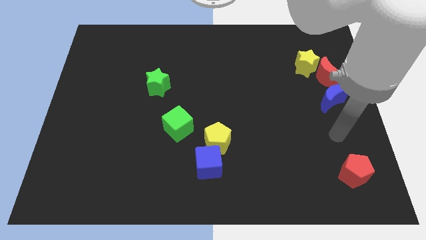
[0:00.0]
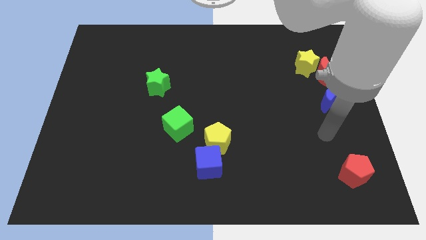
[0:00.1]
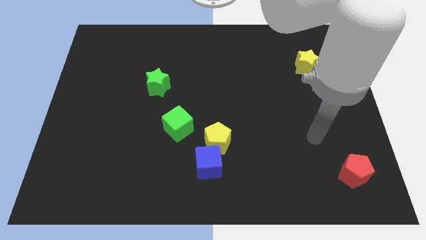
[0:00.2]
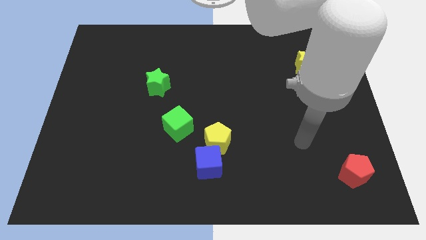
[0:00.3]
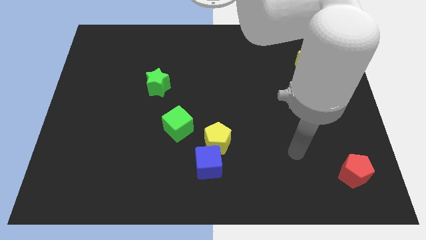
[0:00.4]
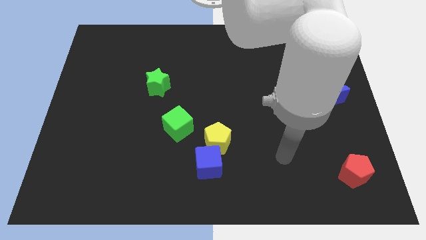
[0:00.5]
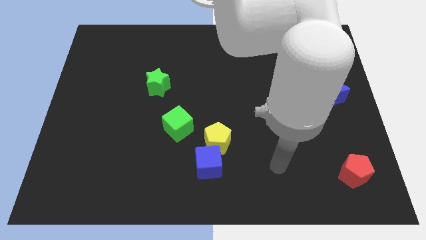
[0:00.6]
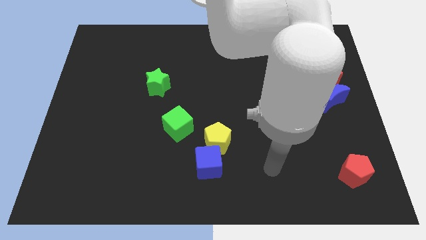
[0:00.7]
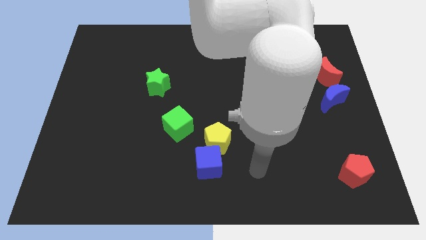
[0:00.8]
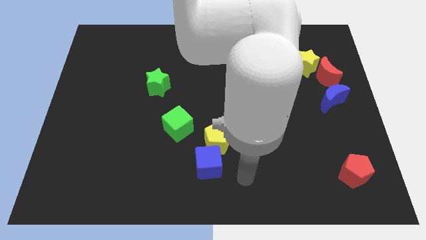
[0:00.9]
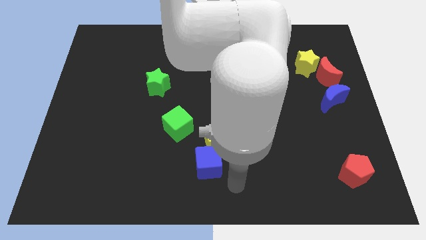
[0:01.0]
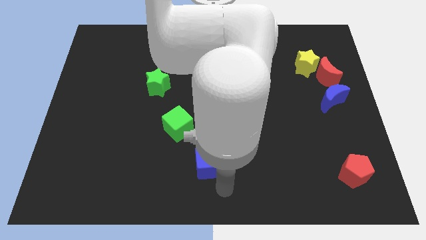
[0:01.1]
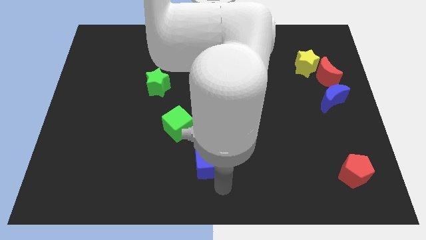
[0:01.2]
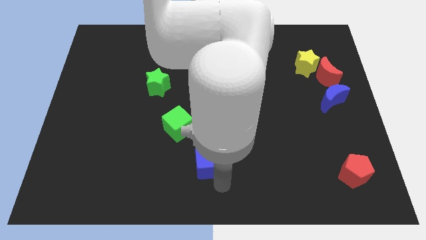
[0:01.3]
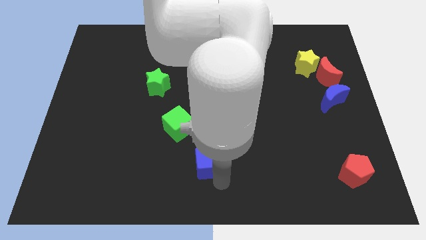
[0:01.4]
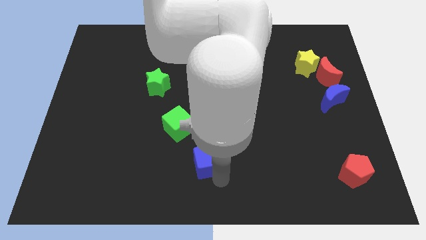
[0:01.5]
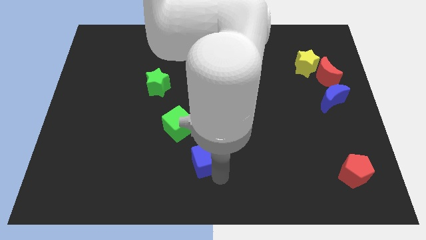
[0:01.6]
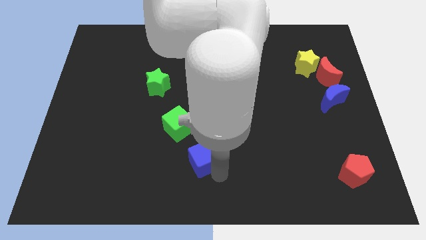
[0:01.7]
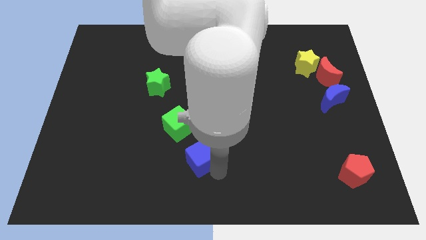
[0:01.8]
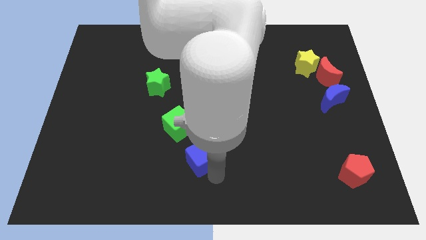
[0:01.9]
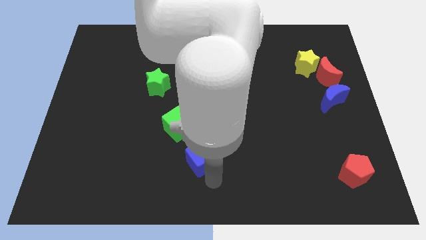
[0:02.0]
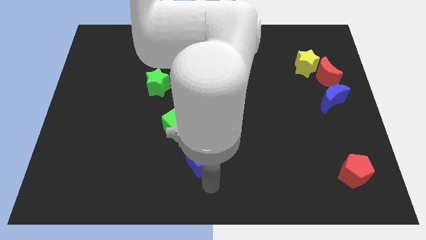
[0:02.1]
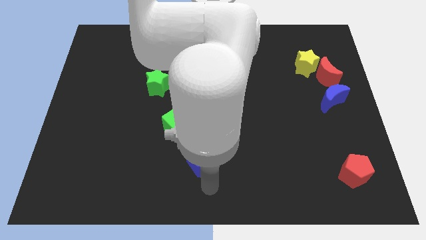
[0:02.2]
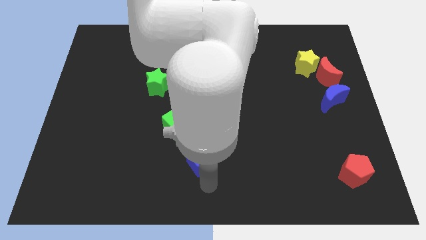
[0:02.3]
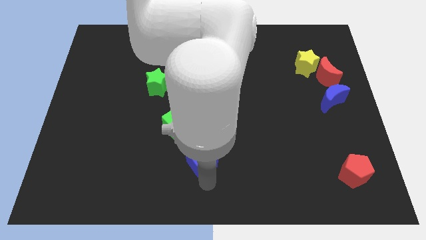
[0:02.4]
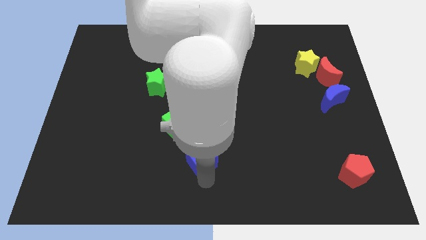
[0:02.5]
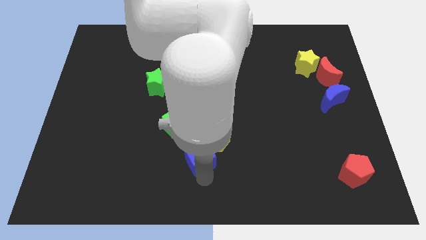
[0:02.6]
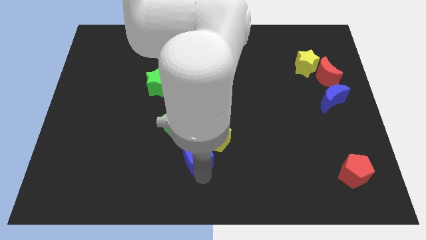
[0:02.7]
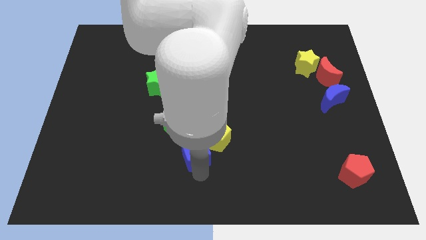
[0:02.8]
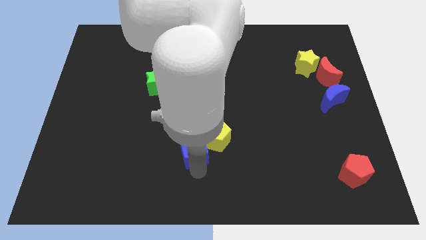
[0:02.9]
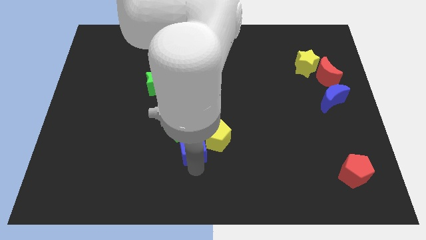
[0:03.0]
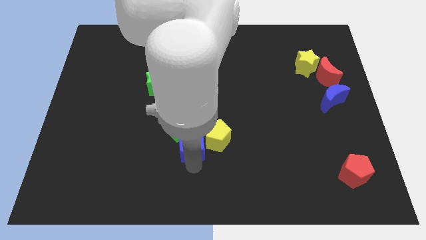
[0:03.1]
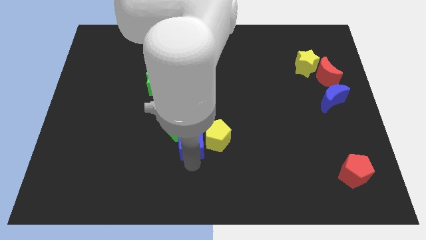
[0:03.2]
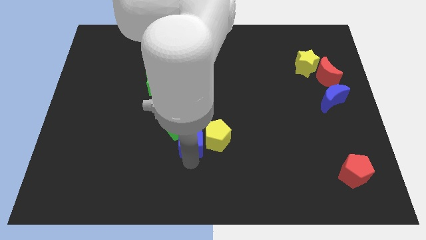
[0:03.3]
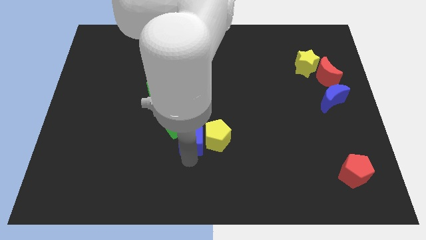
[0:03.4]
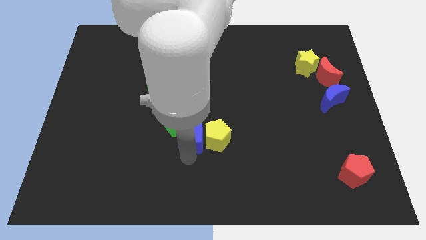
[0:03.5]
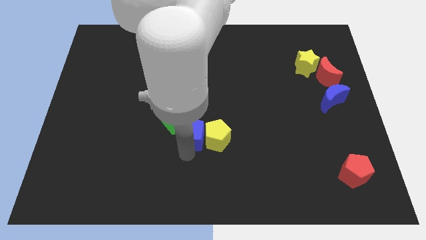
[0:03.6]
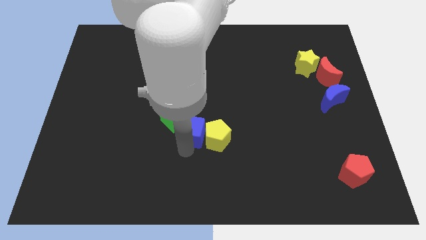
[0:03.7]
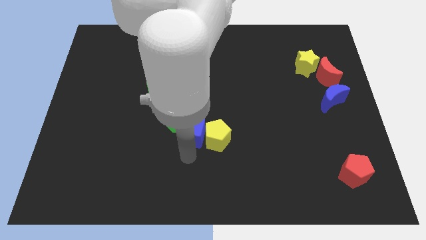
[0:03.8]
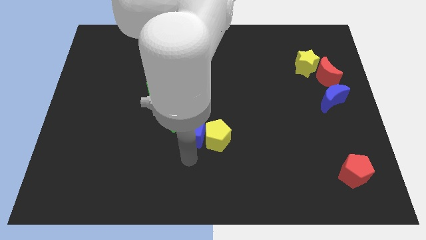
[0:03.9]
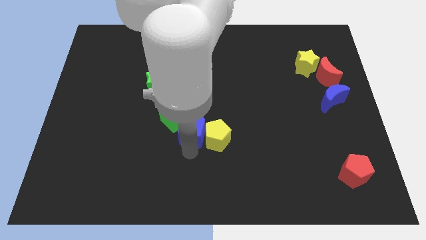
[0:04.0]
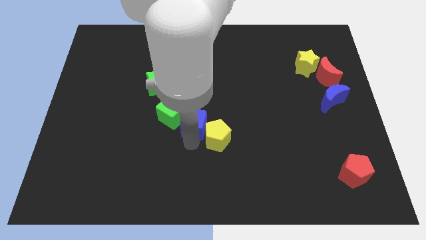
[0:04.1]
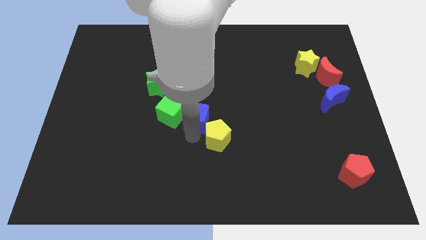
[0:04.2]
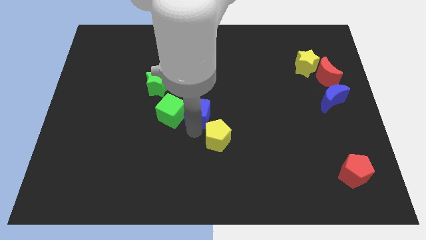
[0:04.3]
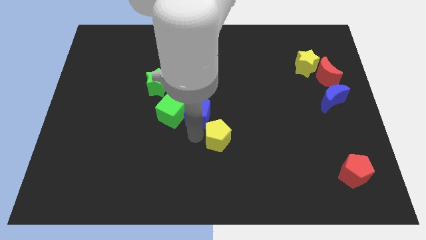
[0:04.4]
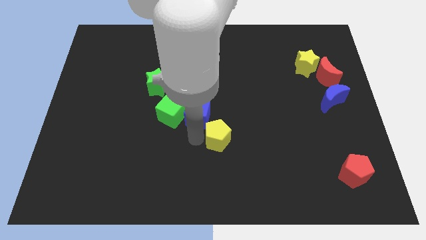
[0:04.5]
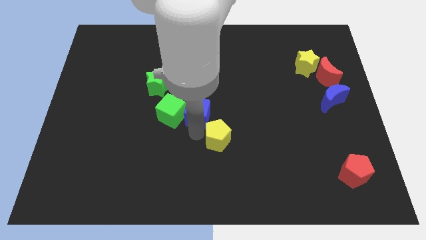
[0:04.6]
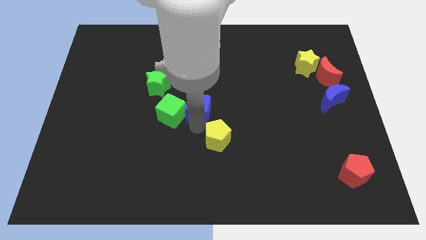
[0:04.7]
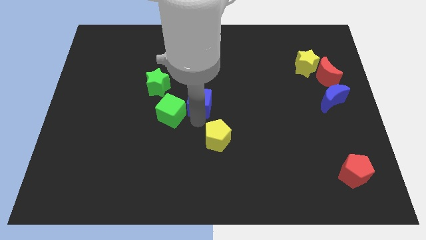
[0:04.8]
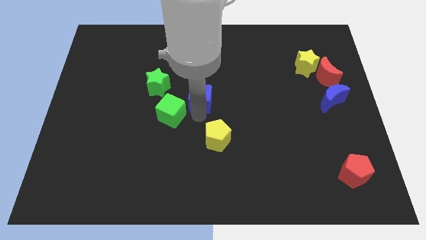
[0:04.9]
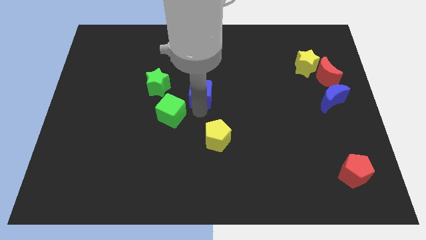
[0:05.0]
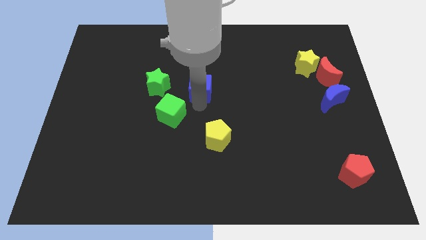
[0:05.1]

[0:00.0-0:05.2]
push the blue cube upwards

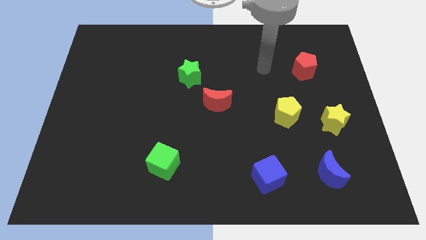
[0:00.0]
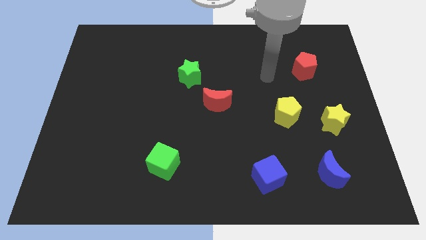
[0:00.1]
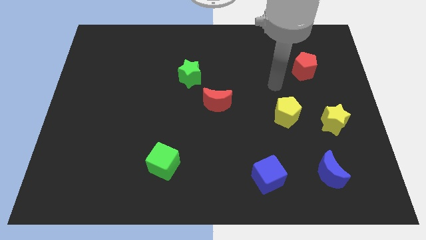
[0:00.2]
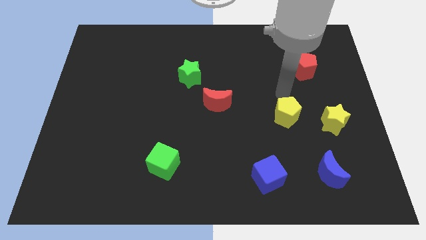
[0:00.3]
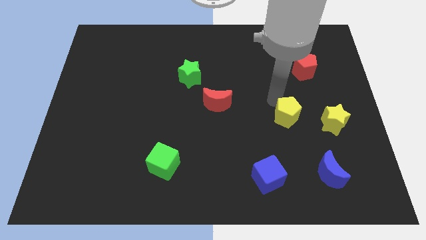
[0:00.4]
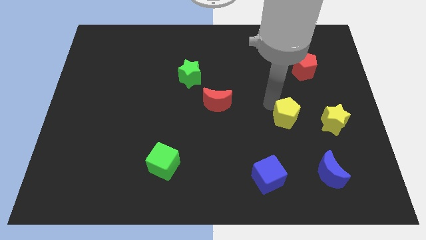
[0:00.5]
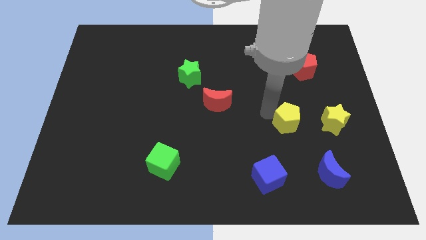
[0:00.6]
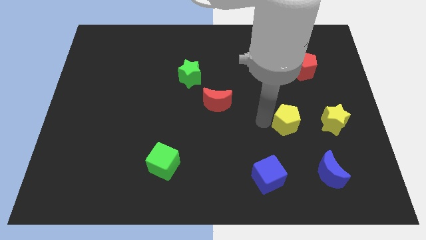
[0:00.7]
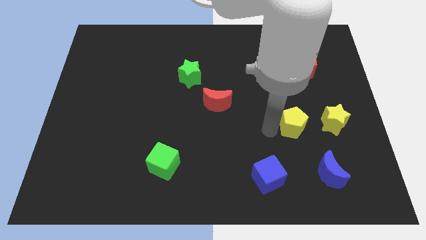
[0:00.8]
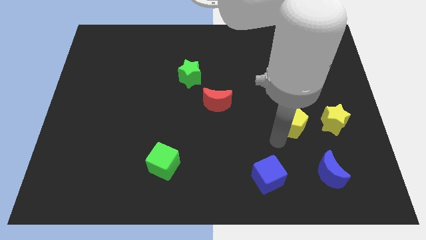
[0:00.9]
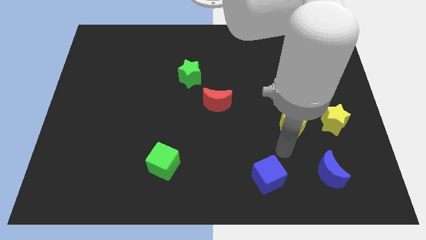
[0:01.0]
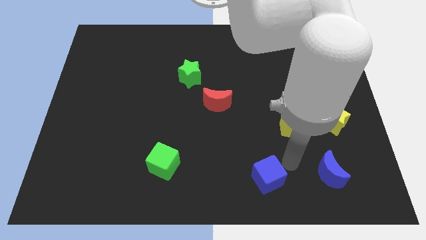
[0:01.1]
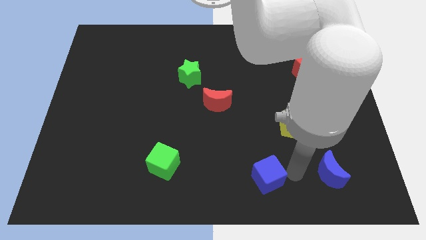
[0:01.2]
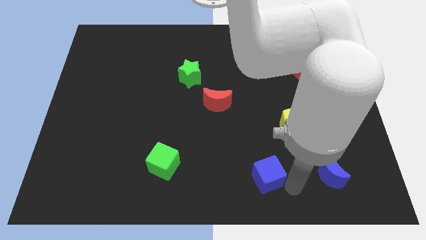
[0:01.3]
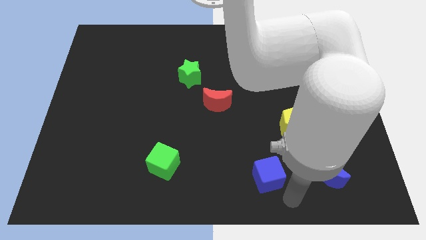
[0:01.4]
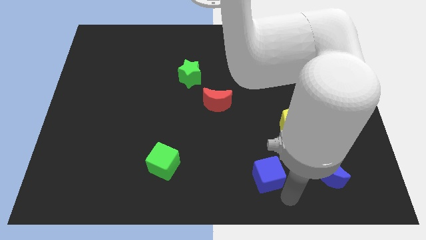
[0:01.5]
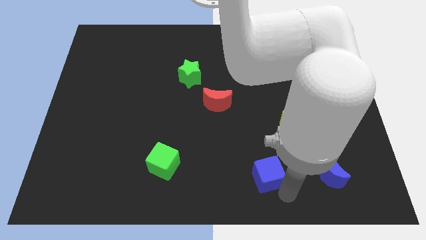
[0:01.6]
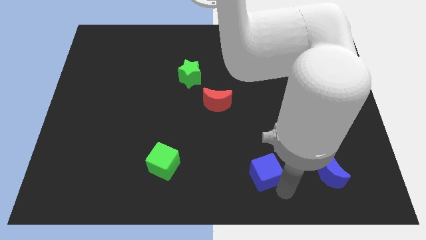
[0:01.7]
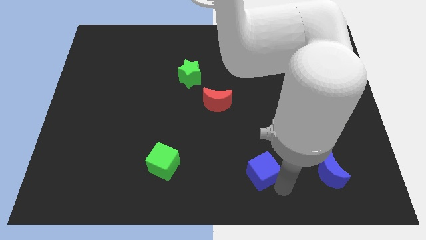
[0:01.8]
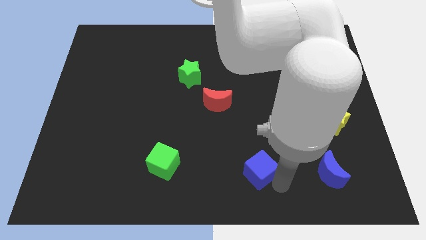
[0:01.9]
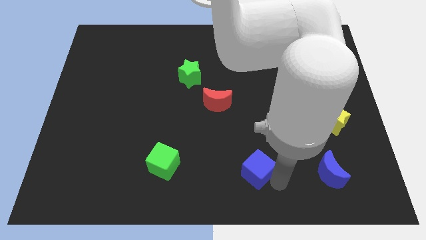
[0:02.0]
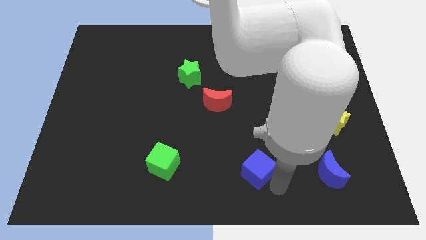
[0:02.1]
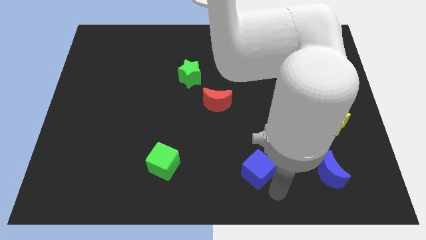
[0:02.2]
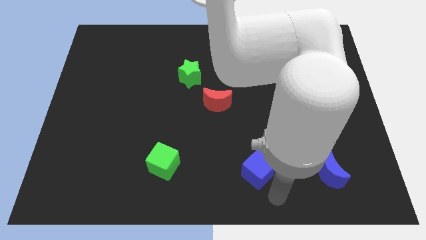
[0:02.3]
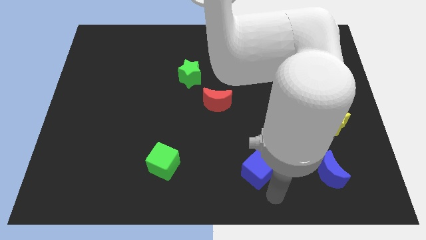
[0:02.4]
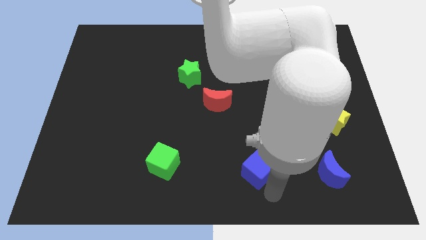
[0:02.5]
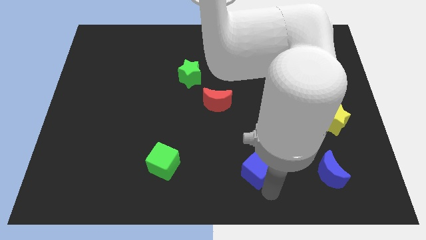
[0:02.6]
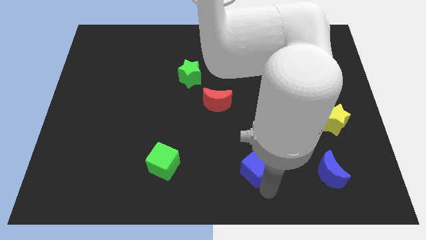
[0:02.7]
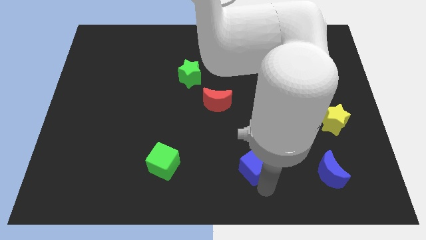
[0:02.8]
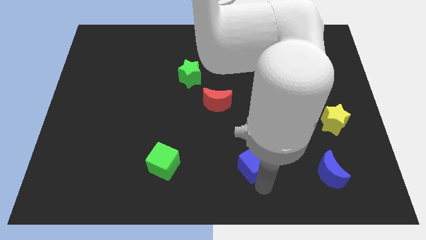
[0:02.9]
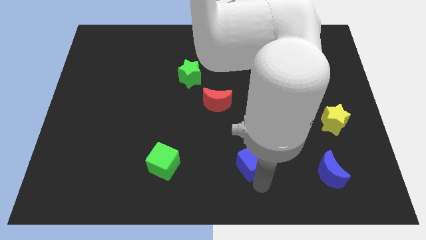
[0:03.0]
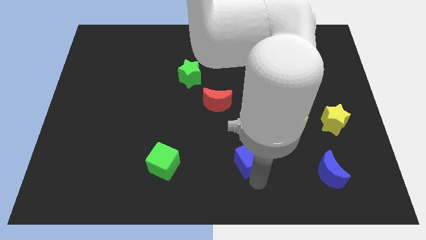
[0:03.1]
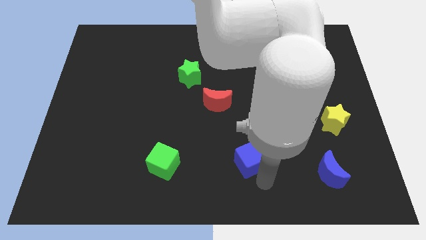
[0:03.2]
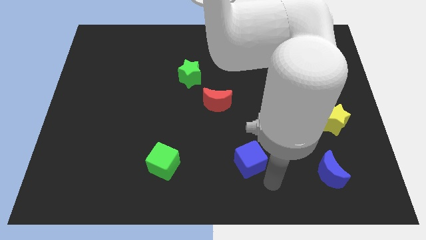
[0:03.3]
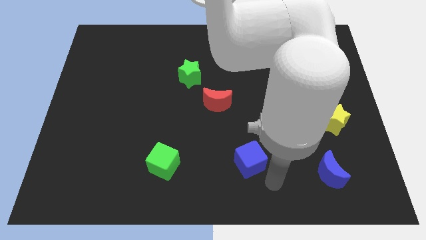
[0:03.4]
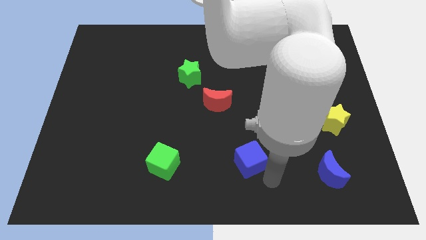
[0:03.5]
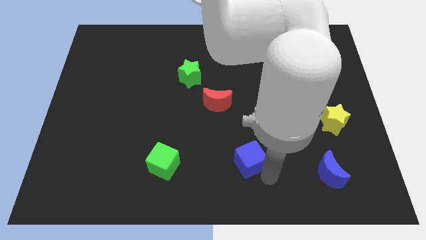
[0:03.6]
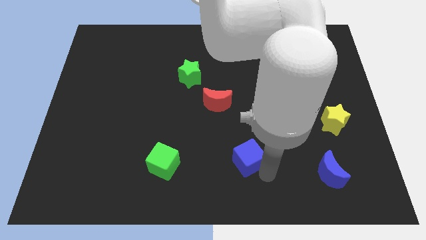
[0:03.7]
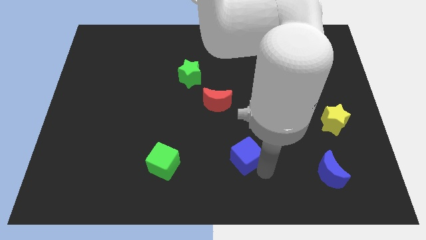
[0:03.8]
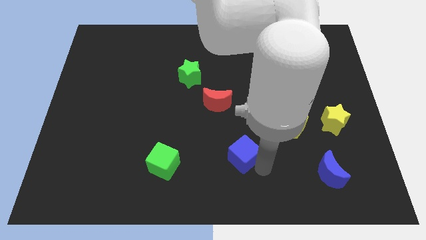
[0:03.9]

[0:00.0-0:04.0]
move the blue cube upwards and then to the left slightly
